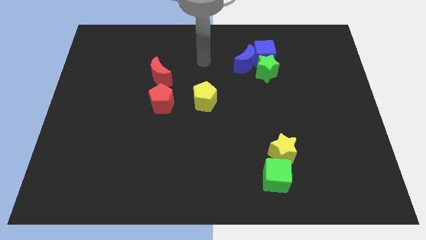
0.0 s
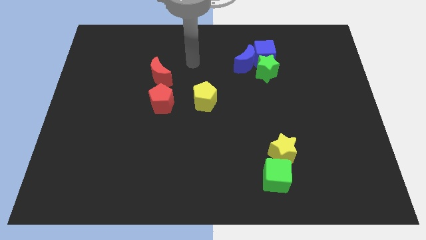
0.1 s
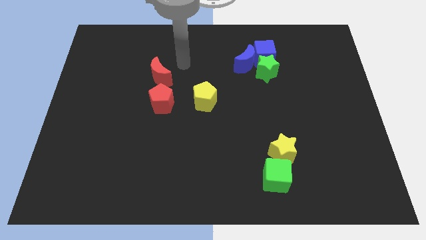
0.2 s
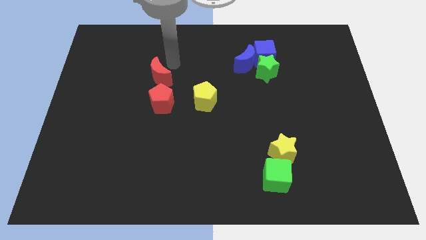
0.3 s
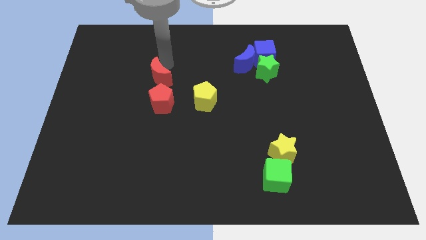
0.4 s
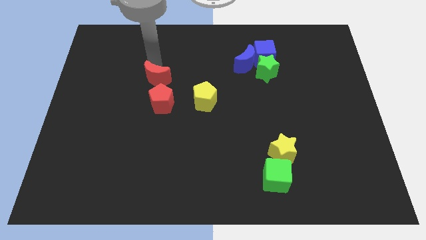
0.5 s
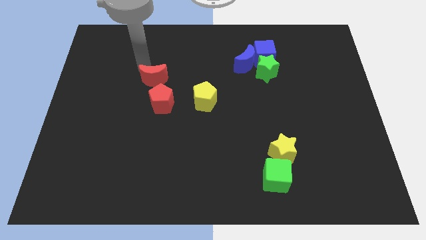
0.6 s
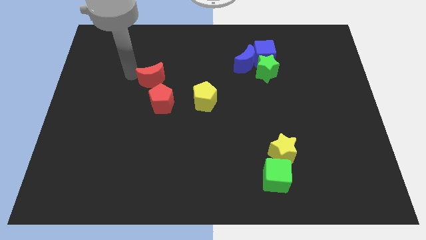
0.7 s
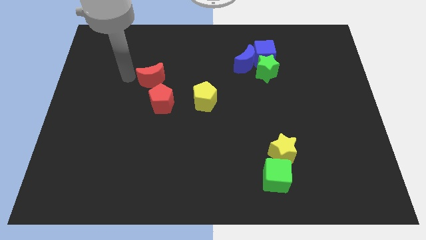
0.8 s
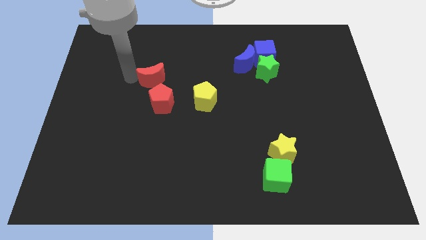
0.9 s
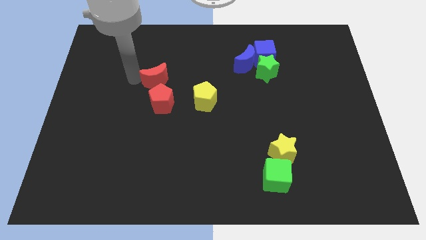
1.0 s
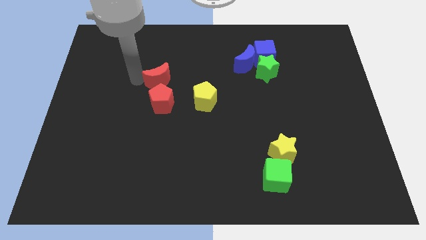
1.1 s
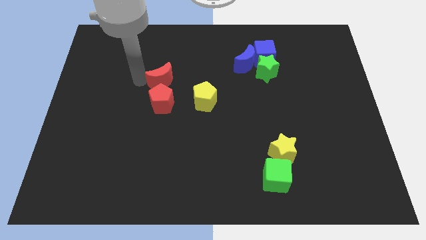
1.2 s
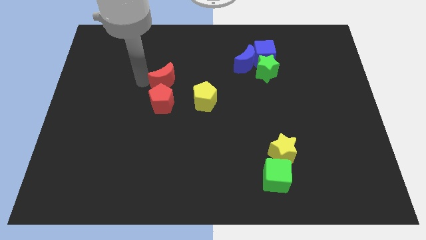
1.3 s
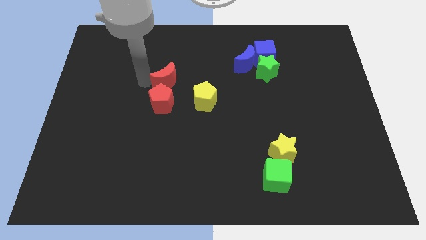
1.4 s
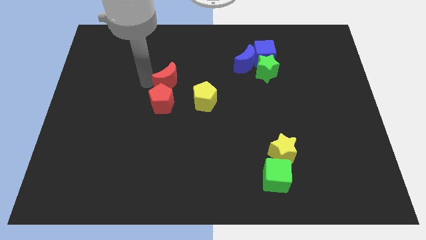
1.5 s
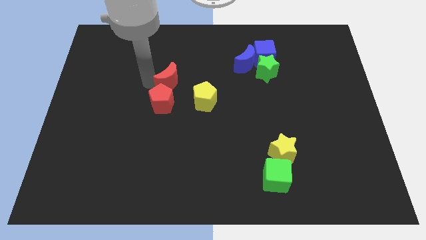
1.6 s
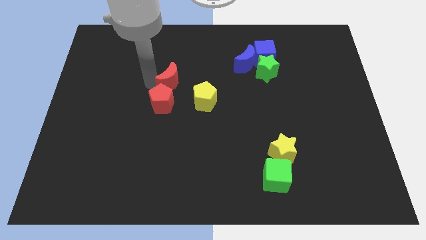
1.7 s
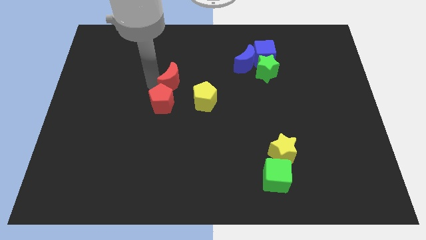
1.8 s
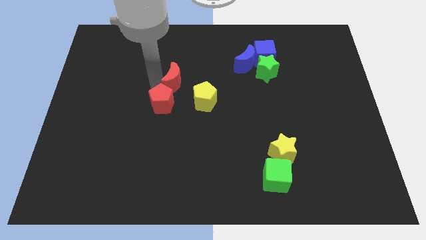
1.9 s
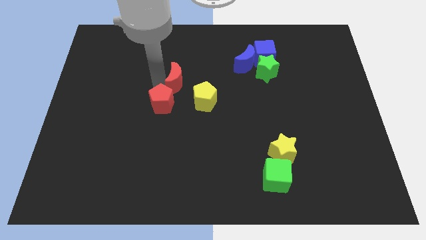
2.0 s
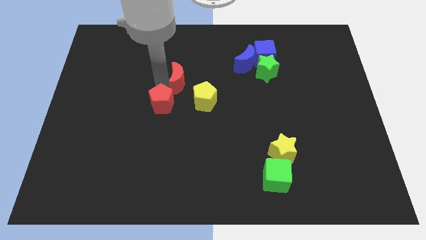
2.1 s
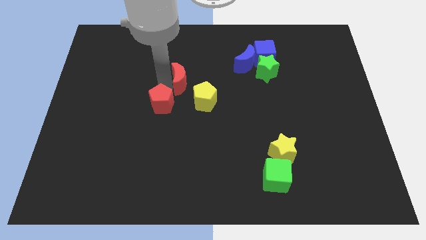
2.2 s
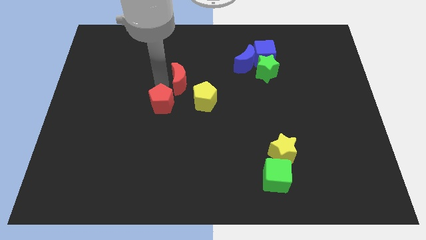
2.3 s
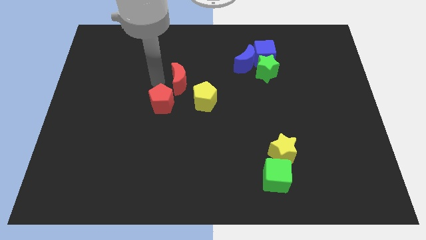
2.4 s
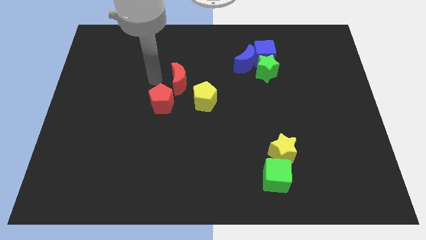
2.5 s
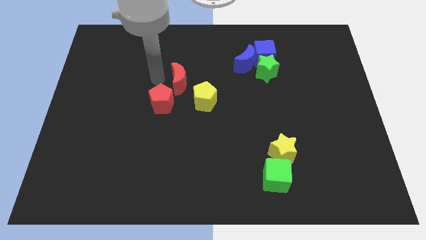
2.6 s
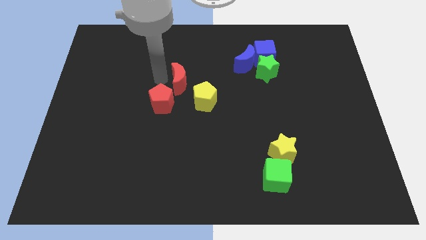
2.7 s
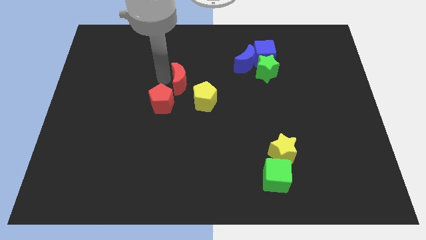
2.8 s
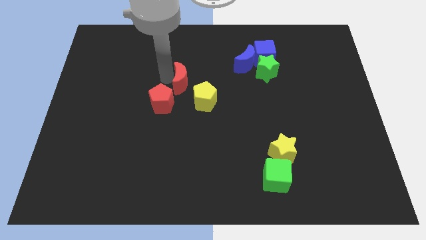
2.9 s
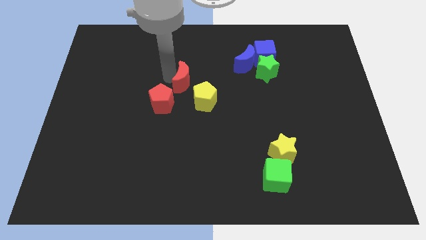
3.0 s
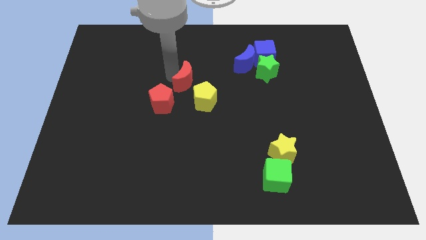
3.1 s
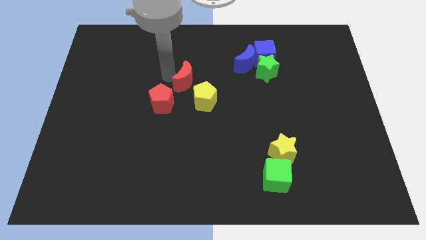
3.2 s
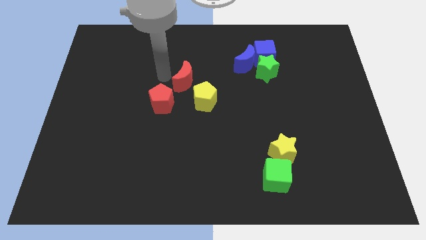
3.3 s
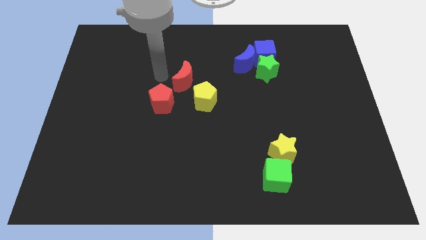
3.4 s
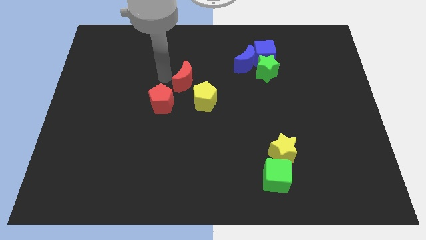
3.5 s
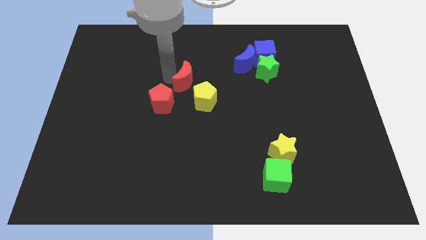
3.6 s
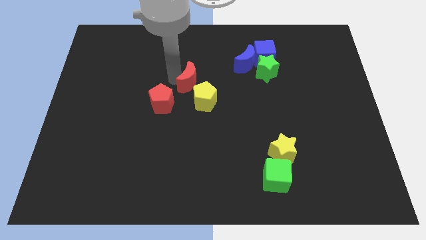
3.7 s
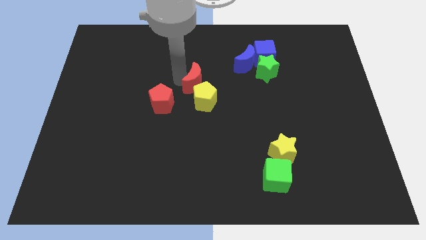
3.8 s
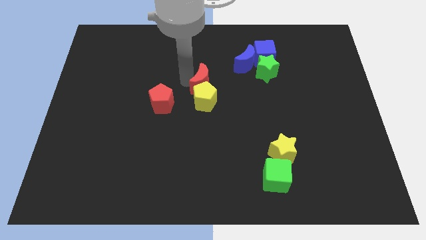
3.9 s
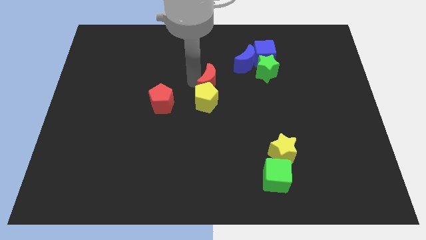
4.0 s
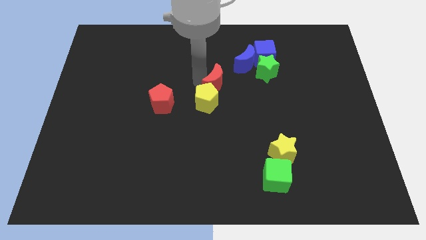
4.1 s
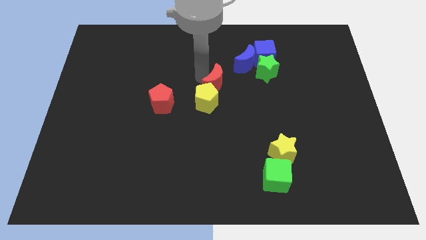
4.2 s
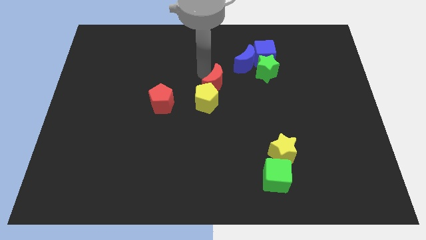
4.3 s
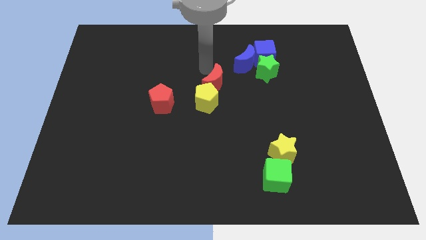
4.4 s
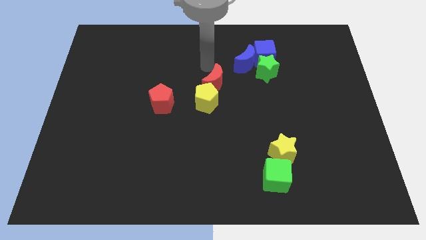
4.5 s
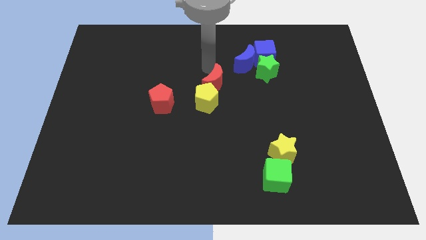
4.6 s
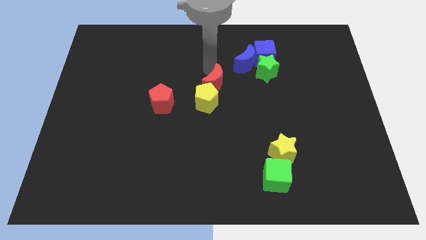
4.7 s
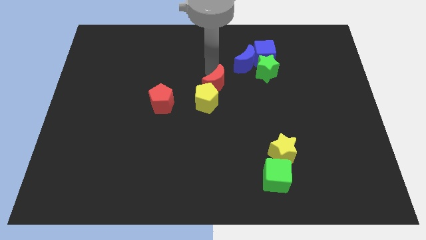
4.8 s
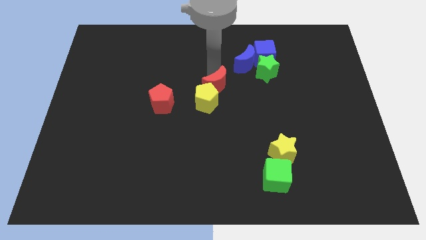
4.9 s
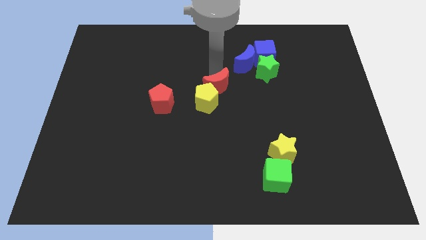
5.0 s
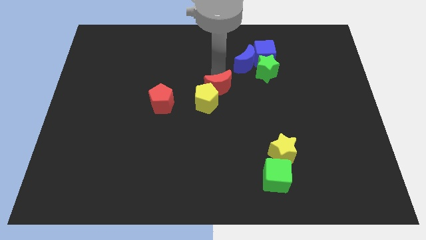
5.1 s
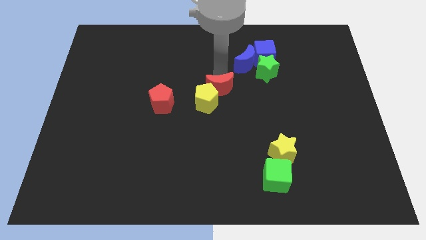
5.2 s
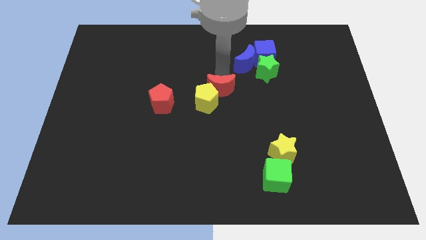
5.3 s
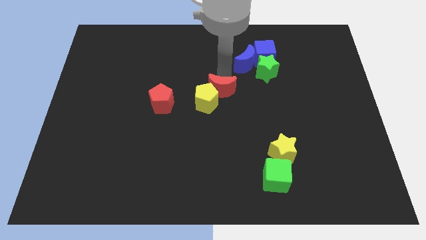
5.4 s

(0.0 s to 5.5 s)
push the red moon just right of the red pentagon

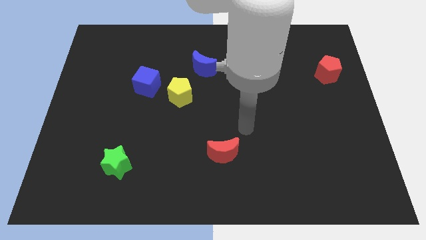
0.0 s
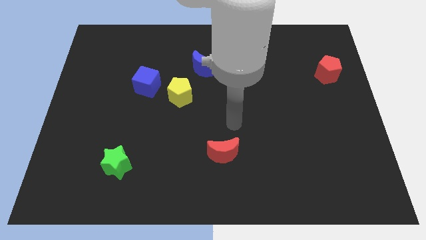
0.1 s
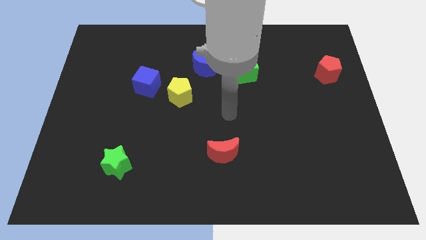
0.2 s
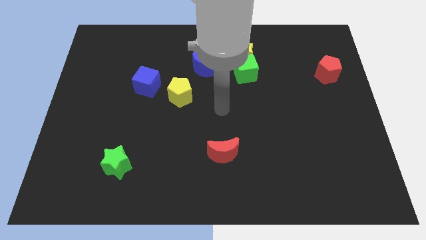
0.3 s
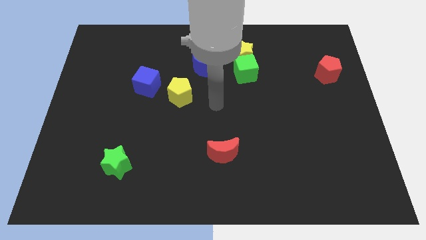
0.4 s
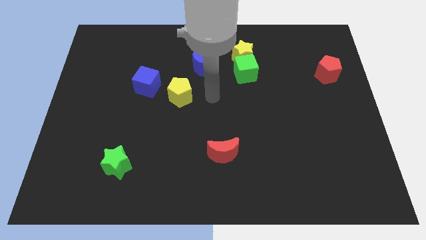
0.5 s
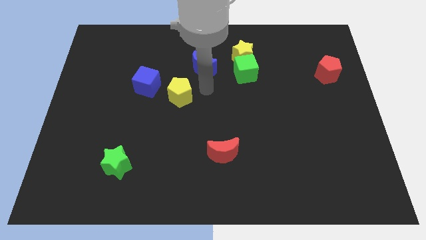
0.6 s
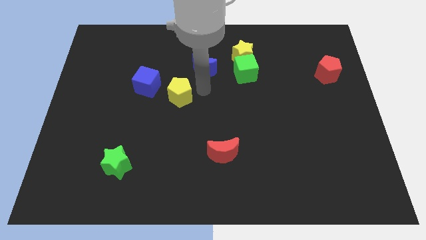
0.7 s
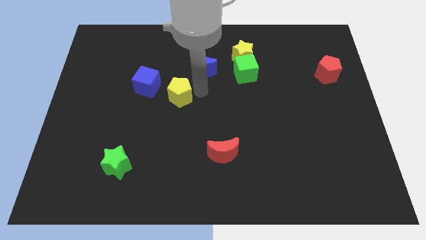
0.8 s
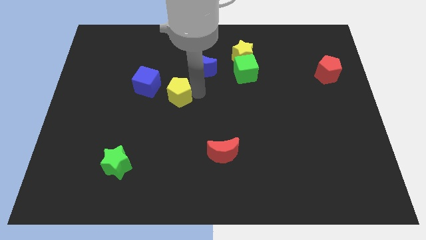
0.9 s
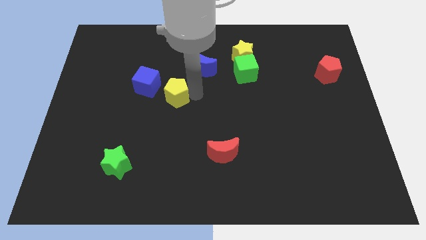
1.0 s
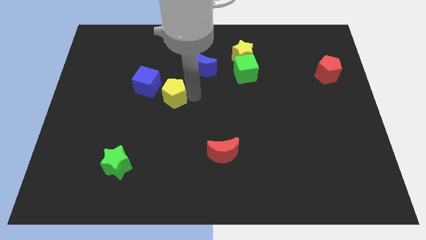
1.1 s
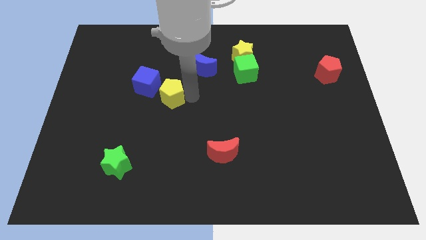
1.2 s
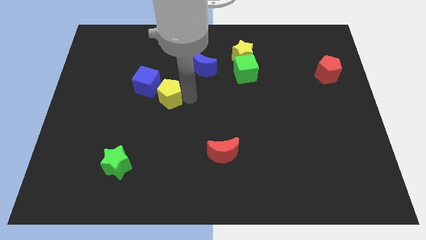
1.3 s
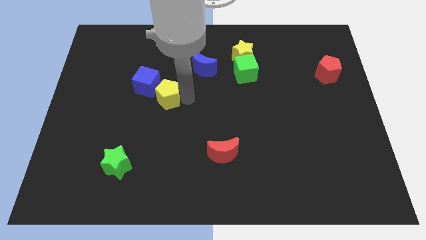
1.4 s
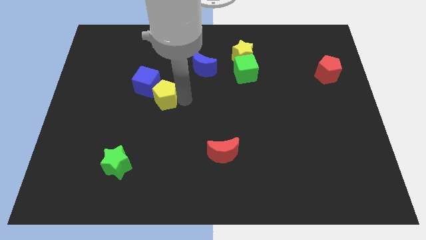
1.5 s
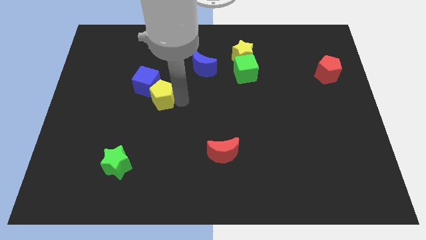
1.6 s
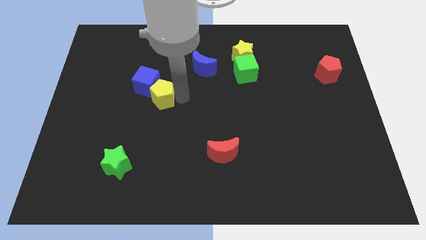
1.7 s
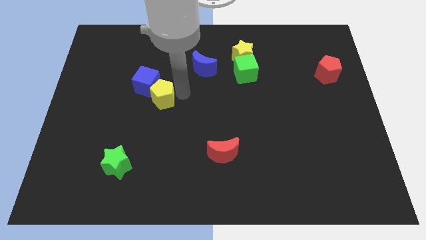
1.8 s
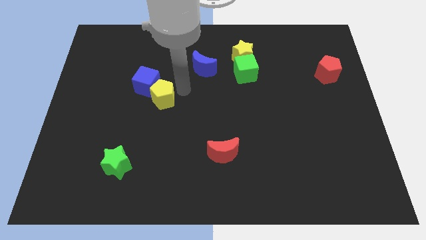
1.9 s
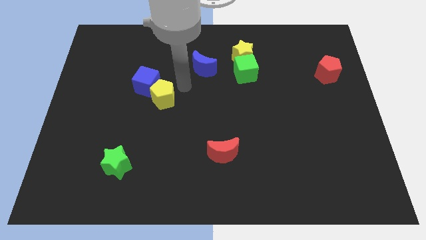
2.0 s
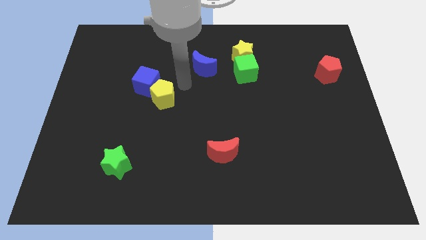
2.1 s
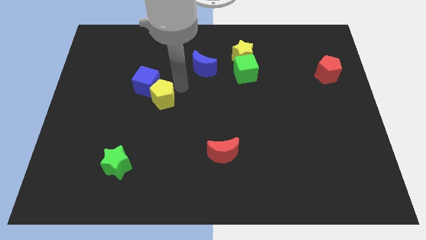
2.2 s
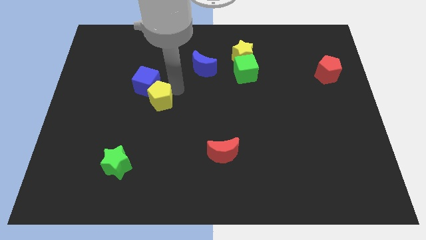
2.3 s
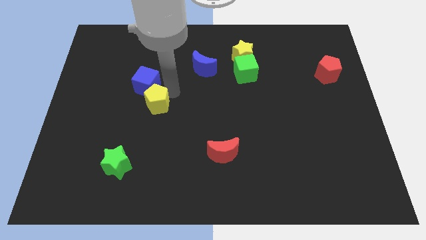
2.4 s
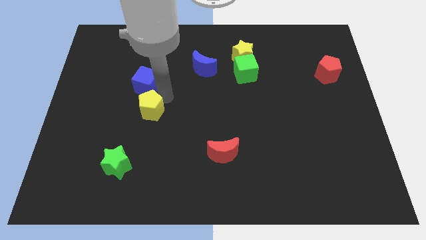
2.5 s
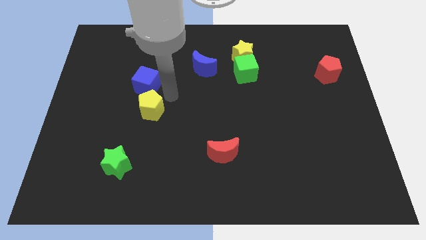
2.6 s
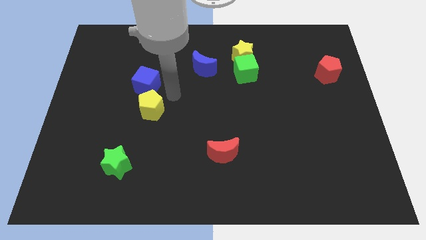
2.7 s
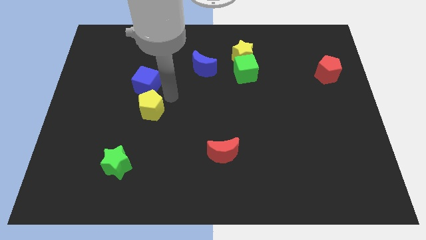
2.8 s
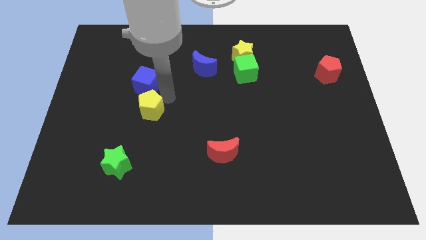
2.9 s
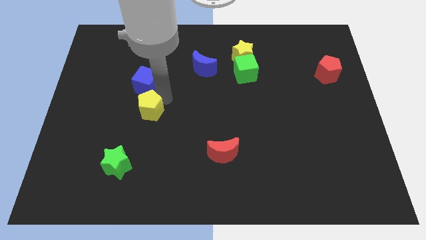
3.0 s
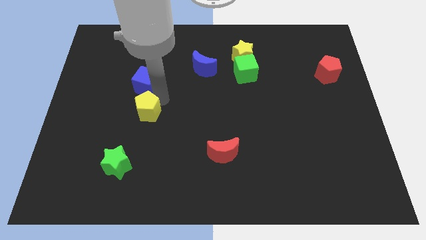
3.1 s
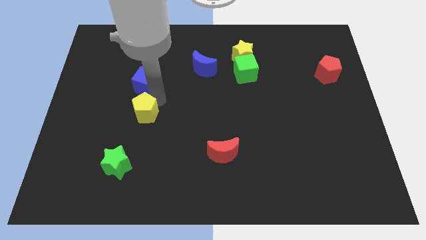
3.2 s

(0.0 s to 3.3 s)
put the yellow pentagon to the top of the green star
